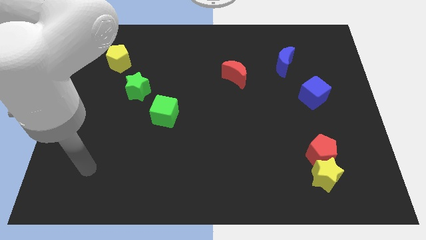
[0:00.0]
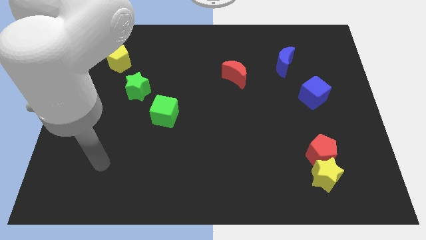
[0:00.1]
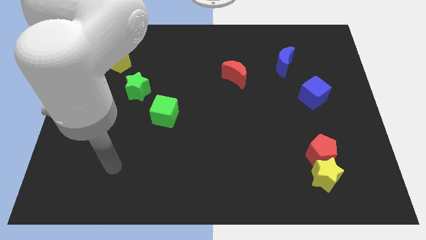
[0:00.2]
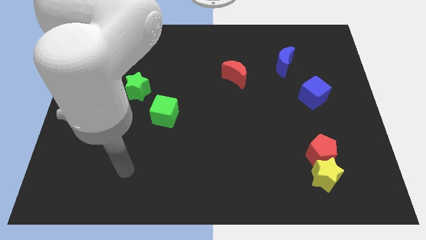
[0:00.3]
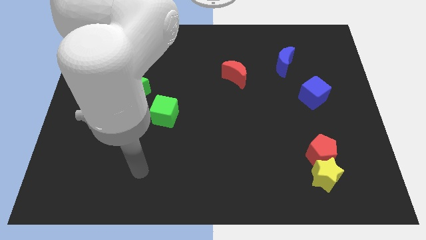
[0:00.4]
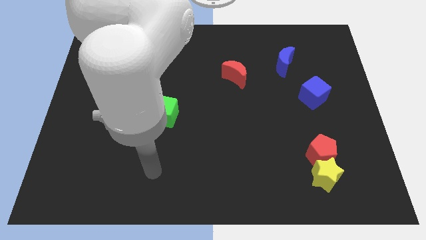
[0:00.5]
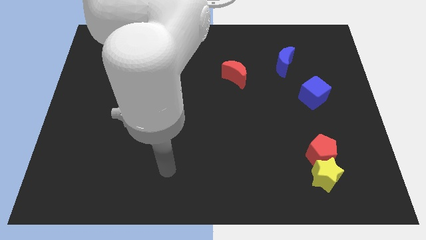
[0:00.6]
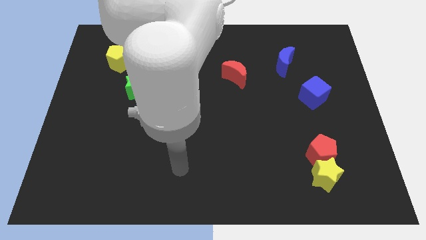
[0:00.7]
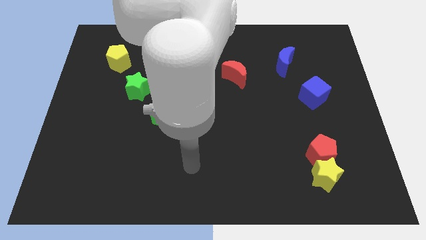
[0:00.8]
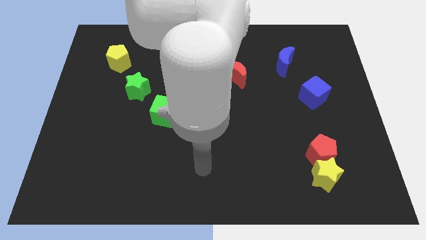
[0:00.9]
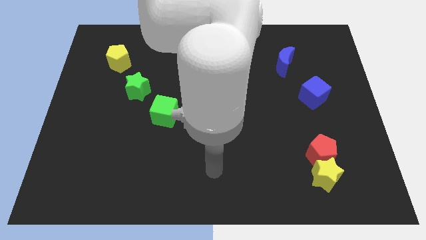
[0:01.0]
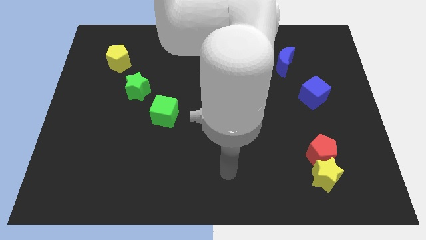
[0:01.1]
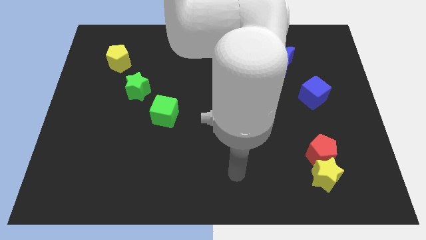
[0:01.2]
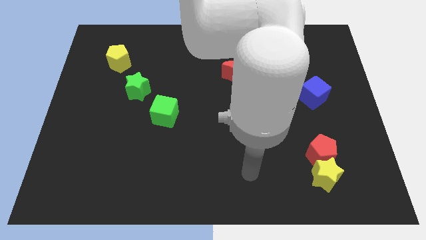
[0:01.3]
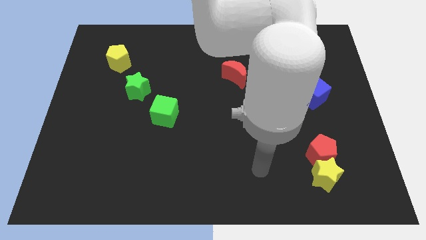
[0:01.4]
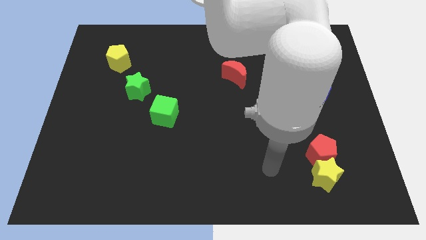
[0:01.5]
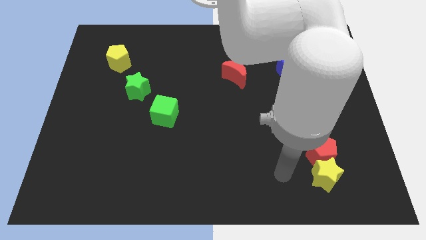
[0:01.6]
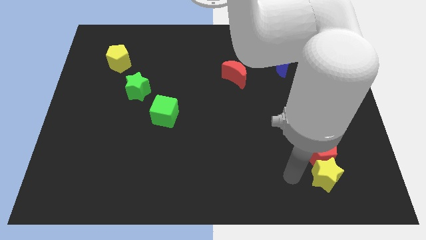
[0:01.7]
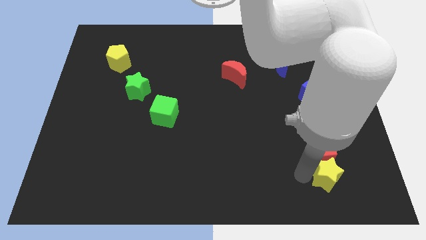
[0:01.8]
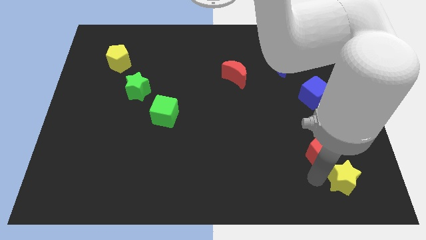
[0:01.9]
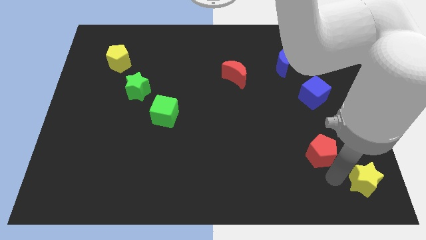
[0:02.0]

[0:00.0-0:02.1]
move the red pentagon away from the yellow star

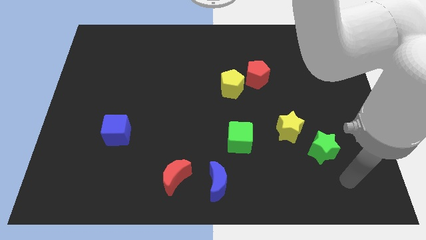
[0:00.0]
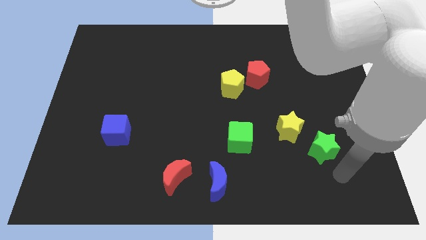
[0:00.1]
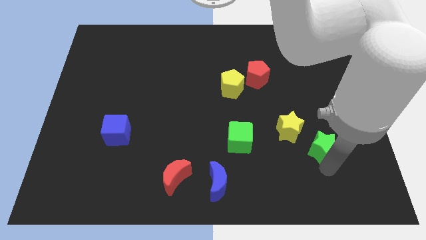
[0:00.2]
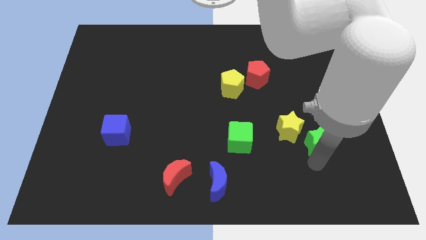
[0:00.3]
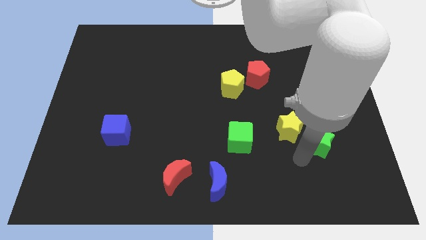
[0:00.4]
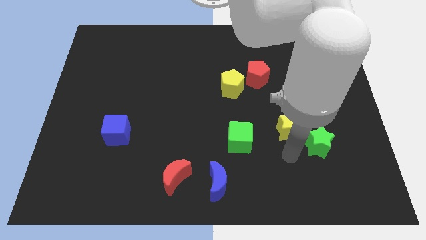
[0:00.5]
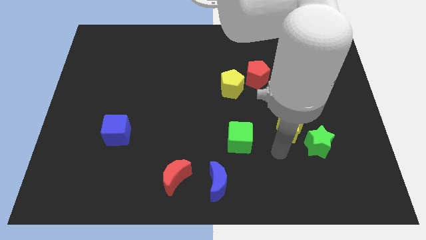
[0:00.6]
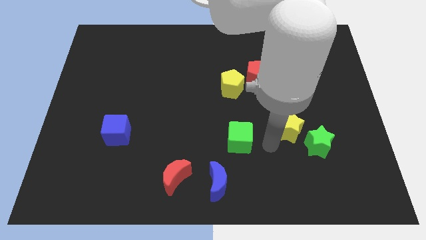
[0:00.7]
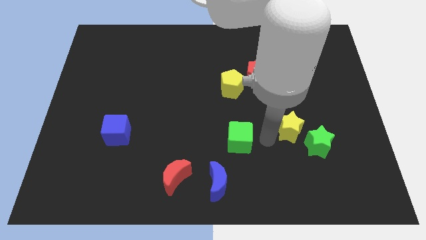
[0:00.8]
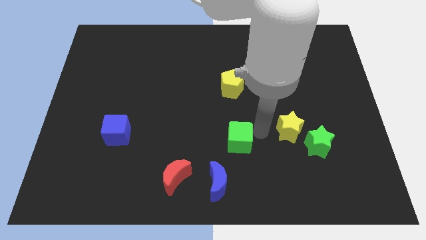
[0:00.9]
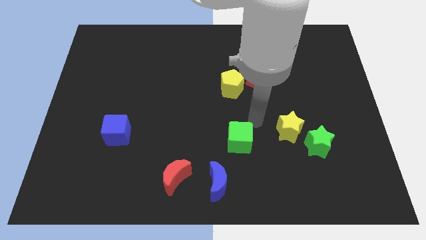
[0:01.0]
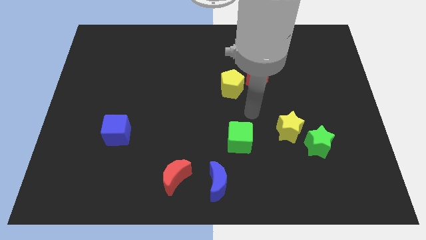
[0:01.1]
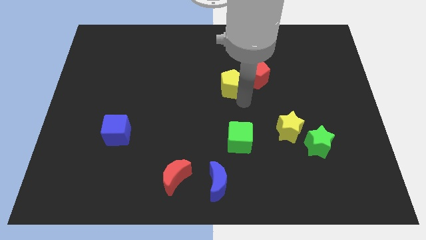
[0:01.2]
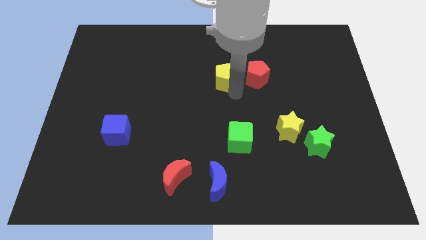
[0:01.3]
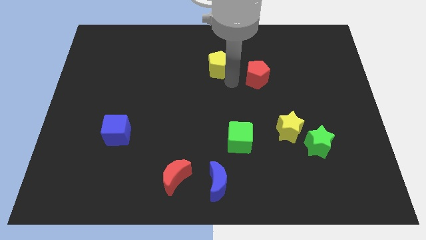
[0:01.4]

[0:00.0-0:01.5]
separate the red pentagon from the yellow pentagon

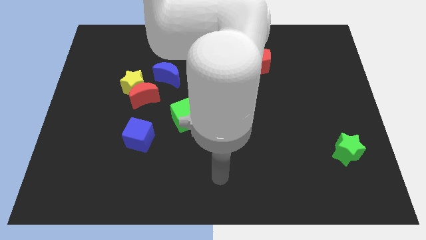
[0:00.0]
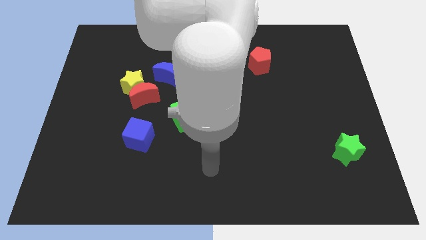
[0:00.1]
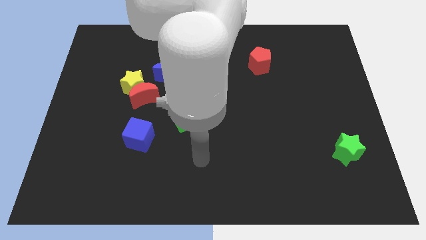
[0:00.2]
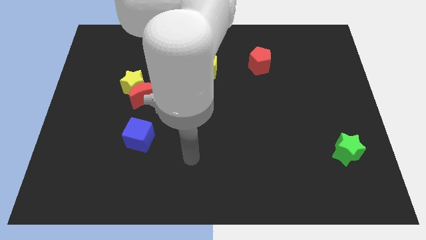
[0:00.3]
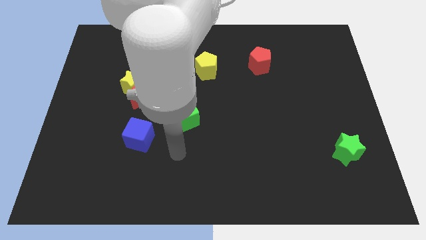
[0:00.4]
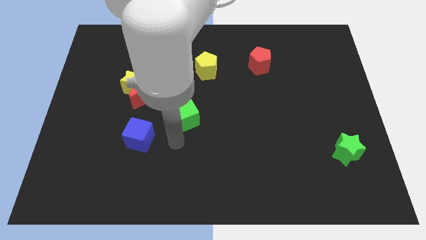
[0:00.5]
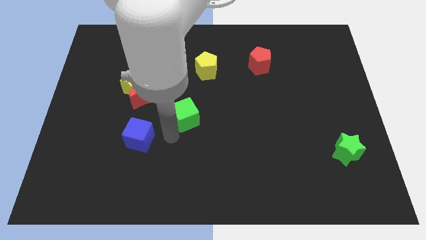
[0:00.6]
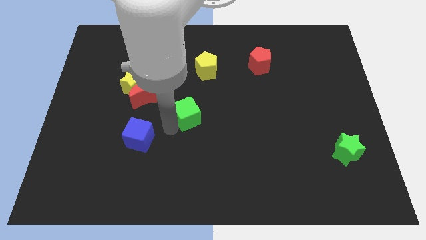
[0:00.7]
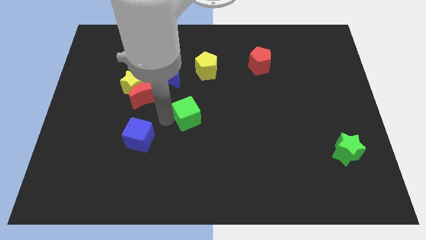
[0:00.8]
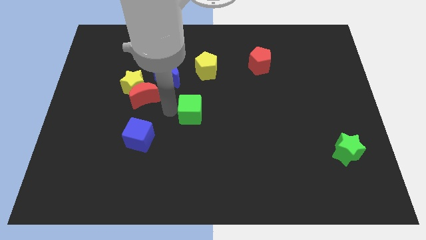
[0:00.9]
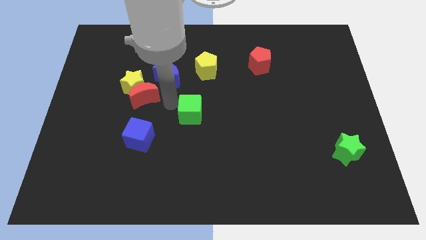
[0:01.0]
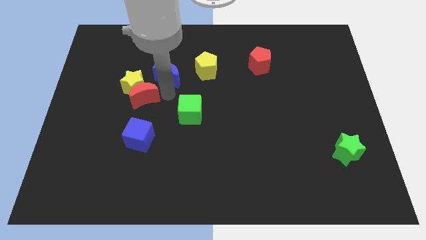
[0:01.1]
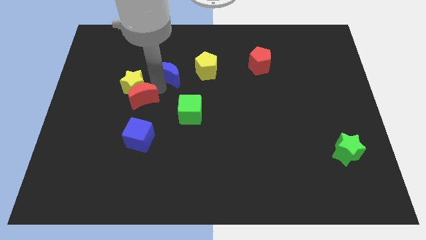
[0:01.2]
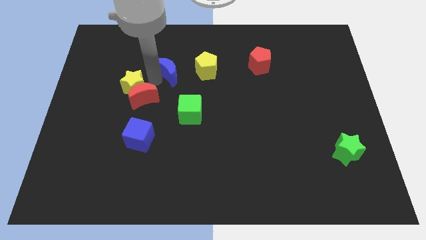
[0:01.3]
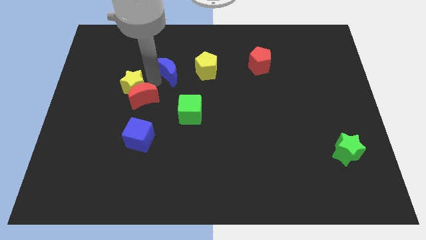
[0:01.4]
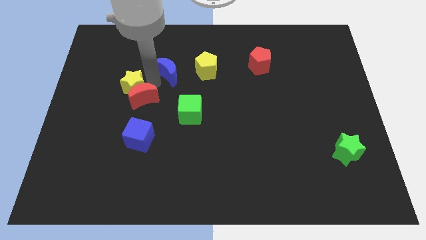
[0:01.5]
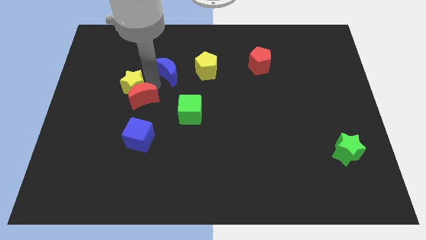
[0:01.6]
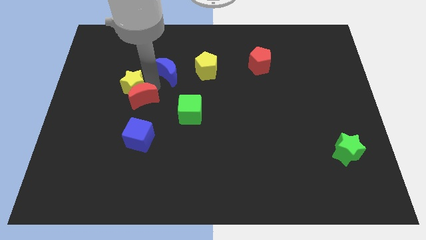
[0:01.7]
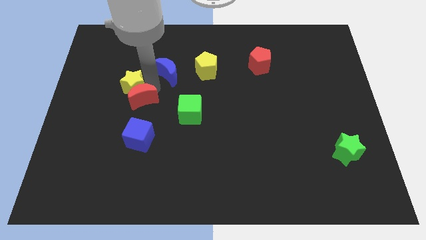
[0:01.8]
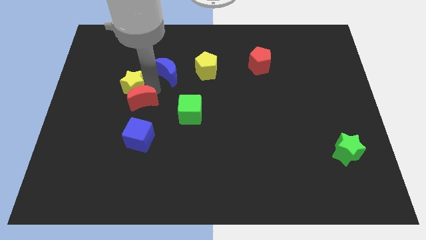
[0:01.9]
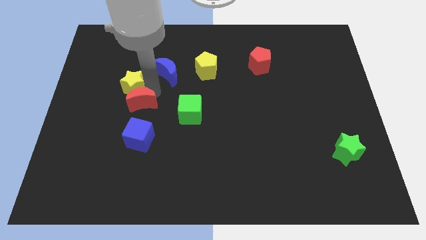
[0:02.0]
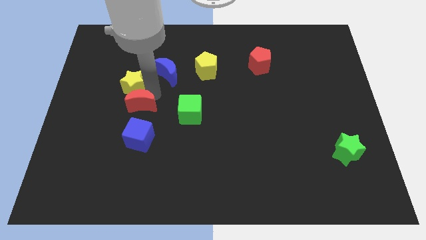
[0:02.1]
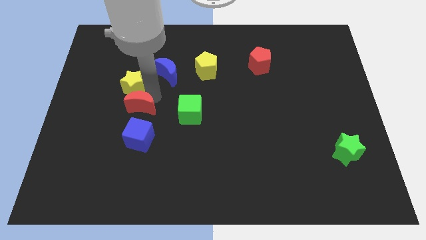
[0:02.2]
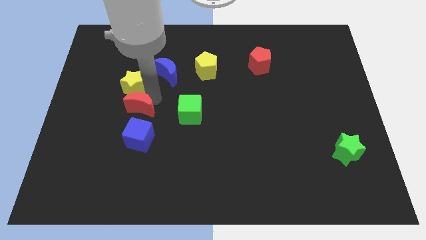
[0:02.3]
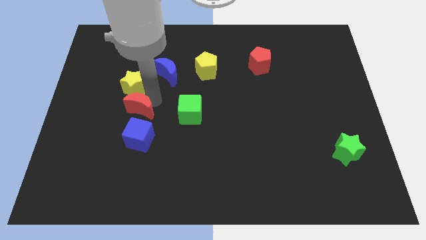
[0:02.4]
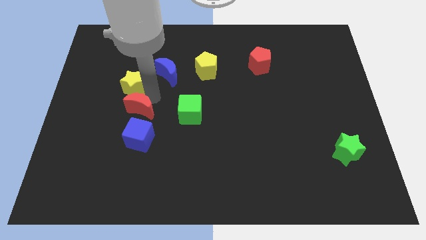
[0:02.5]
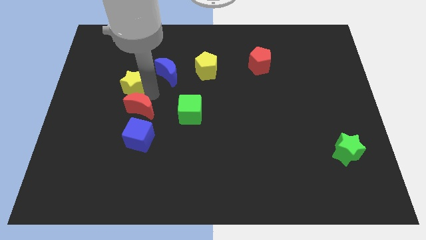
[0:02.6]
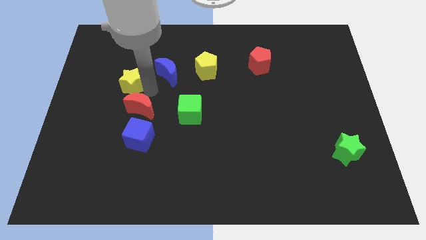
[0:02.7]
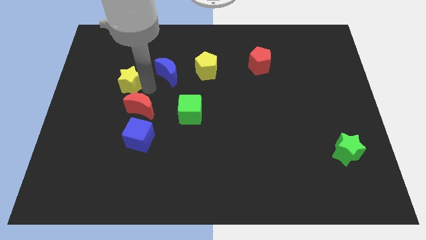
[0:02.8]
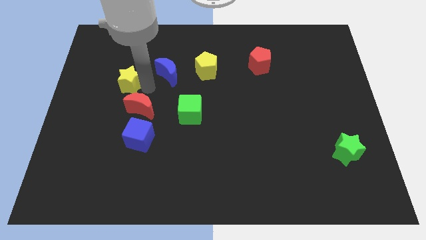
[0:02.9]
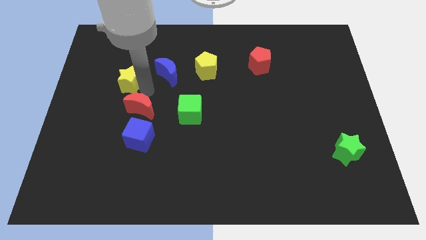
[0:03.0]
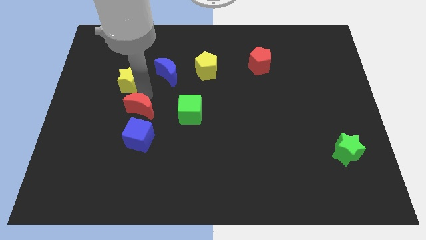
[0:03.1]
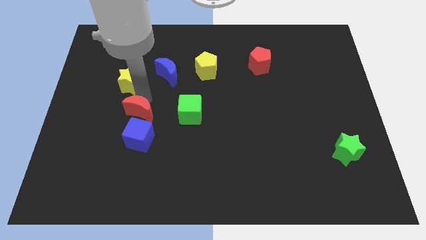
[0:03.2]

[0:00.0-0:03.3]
pull the red moon apart from the yellow star and blue moon

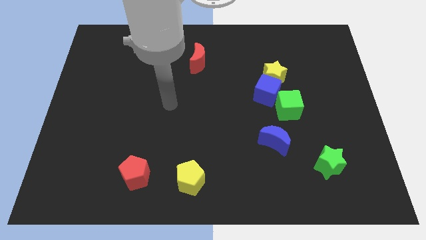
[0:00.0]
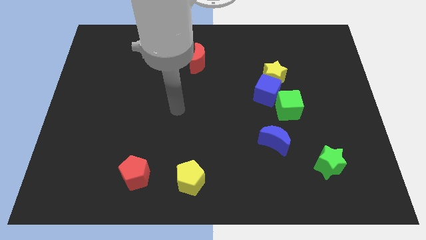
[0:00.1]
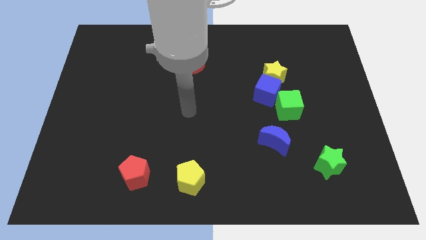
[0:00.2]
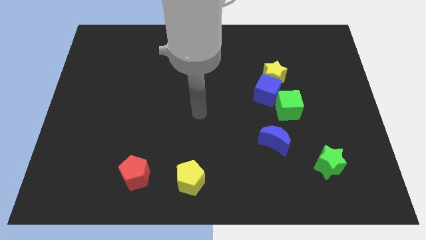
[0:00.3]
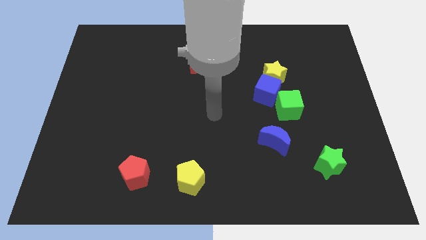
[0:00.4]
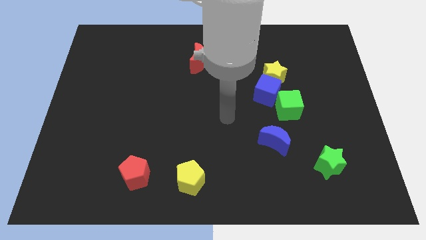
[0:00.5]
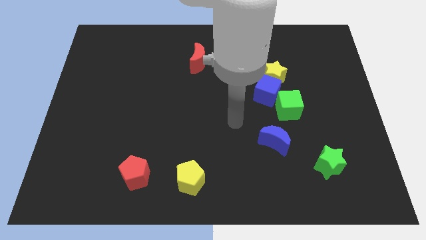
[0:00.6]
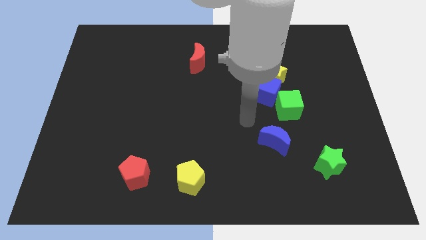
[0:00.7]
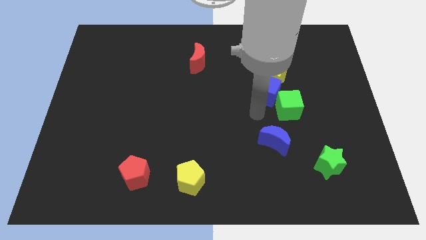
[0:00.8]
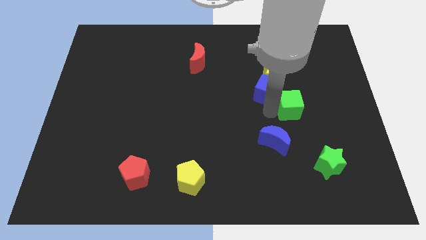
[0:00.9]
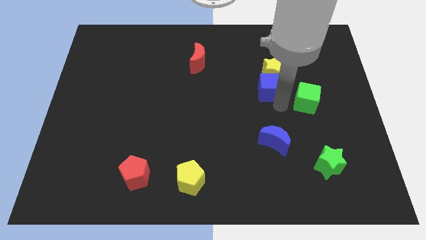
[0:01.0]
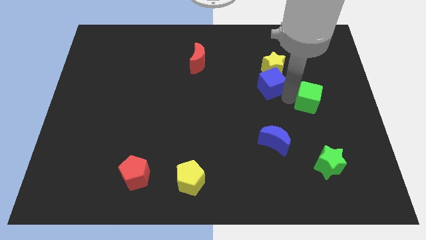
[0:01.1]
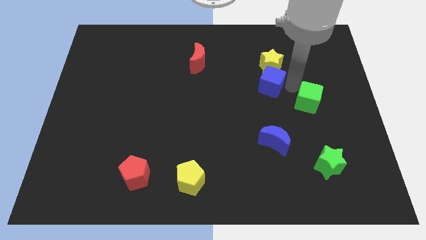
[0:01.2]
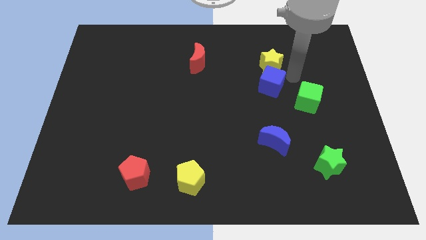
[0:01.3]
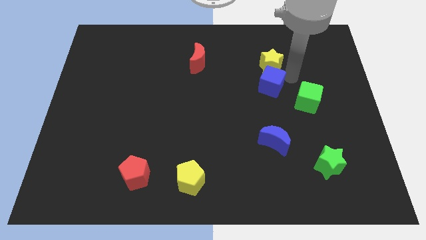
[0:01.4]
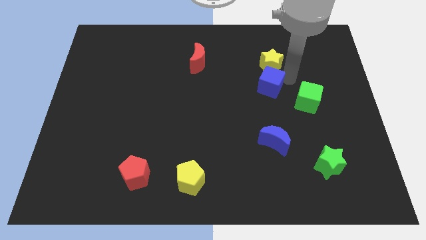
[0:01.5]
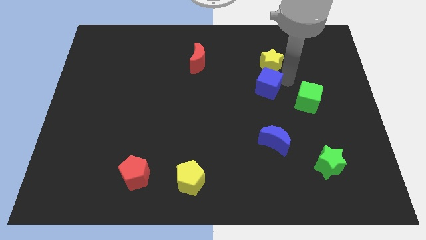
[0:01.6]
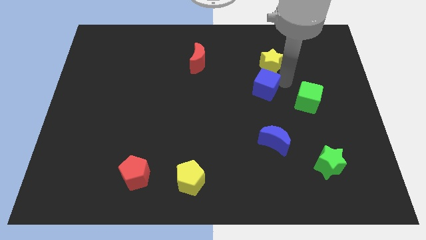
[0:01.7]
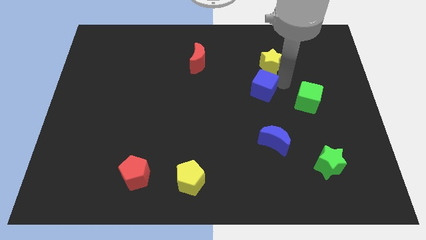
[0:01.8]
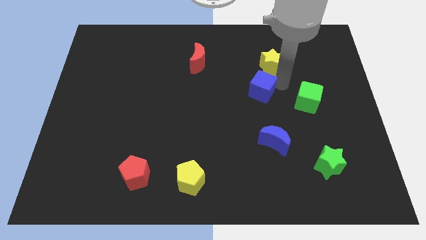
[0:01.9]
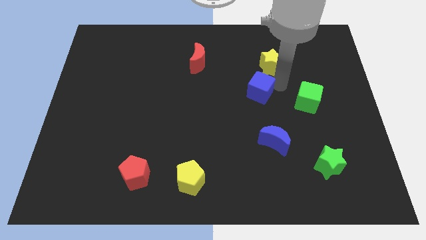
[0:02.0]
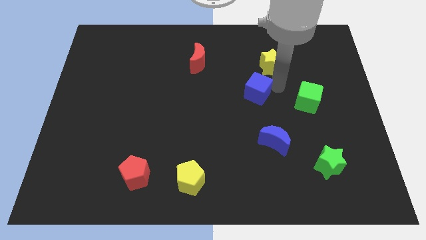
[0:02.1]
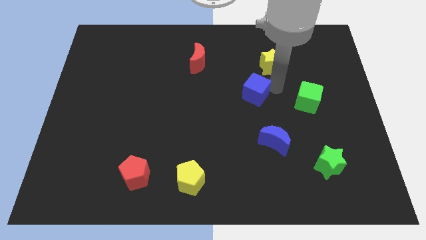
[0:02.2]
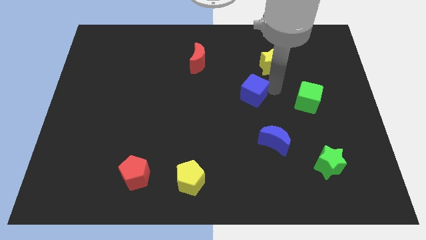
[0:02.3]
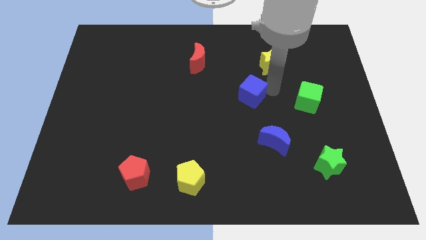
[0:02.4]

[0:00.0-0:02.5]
move the blue cube away from the yellow star and green cube
